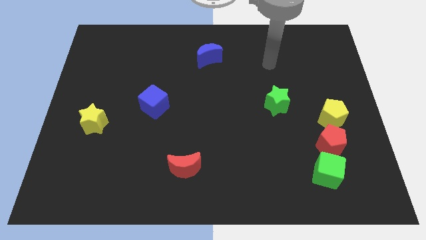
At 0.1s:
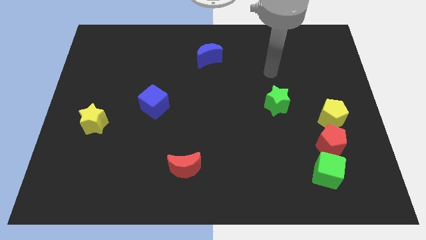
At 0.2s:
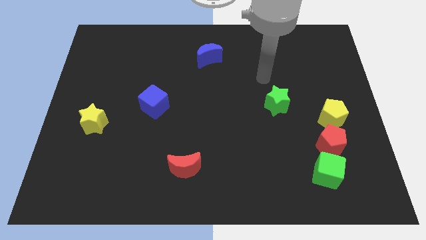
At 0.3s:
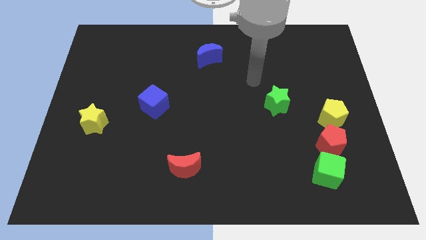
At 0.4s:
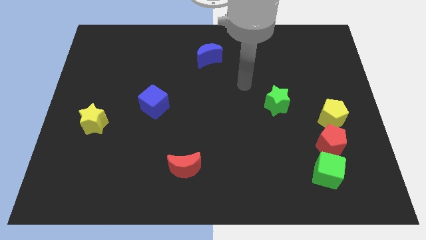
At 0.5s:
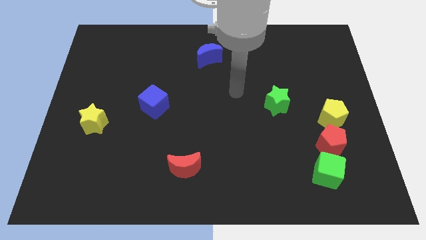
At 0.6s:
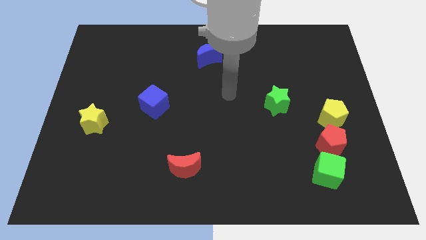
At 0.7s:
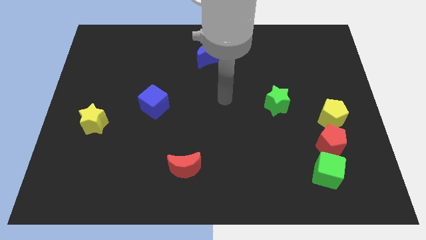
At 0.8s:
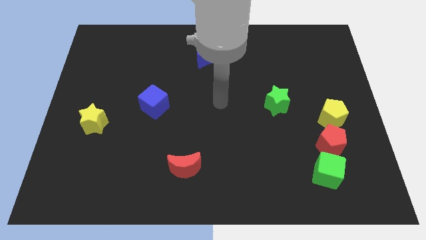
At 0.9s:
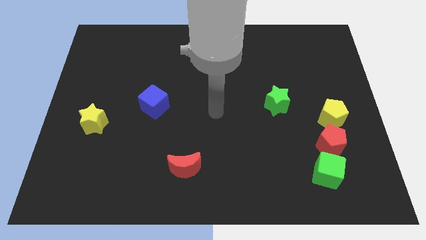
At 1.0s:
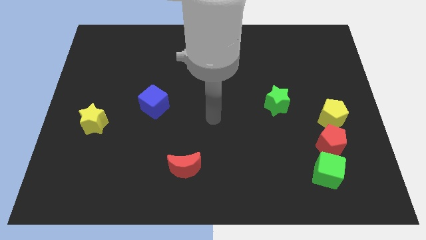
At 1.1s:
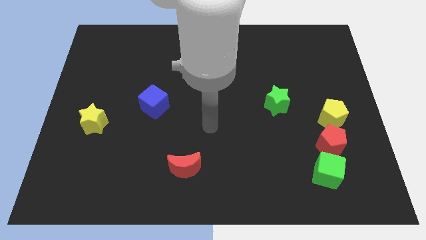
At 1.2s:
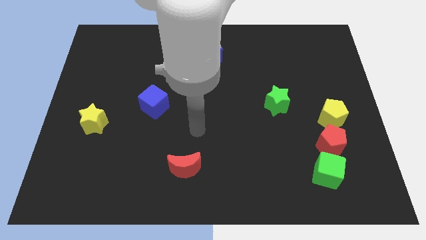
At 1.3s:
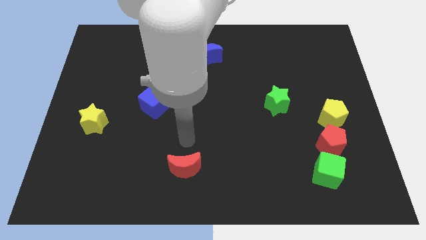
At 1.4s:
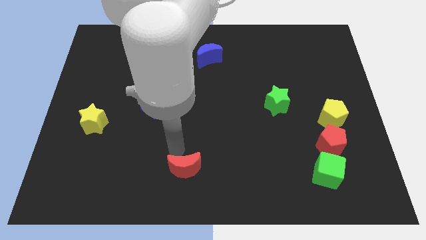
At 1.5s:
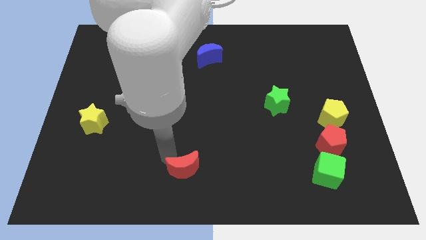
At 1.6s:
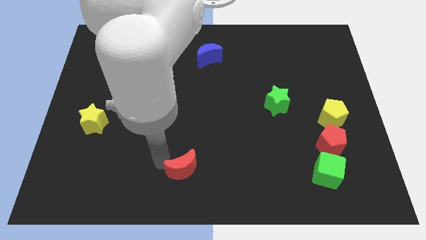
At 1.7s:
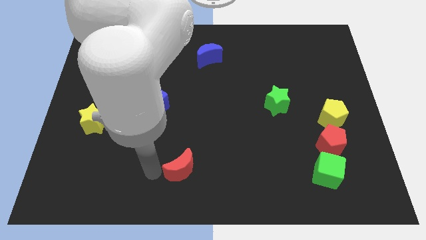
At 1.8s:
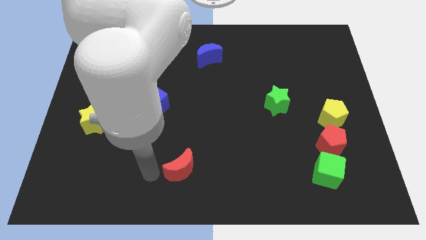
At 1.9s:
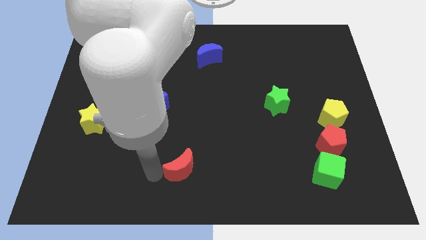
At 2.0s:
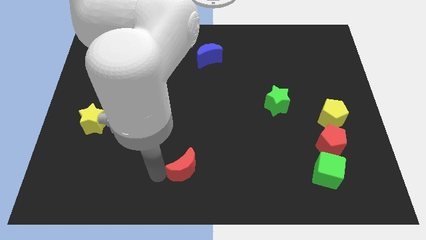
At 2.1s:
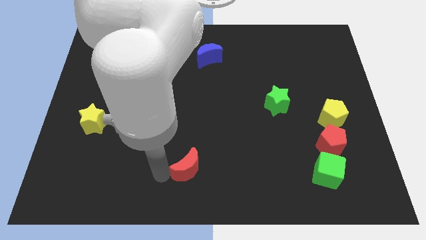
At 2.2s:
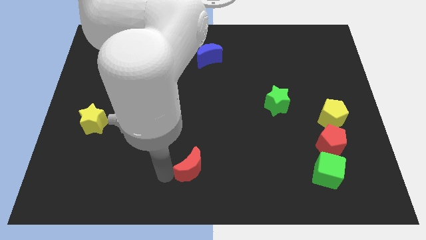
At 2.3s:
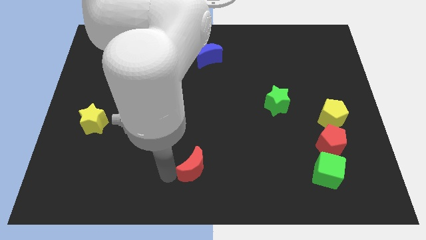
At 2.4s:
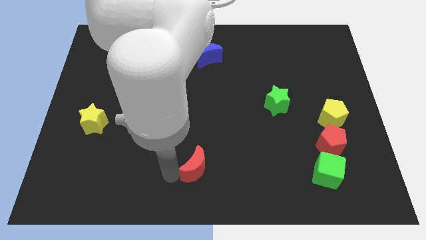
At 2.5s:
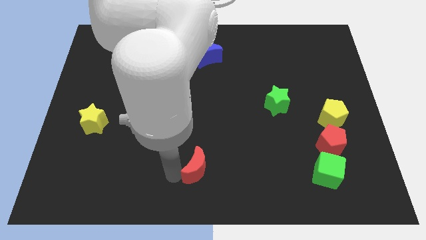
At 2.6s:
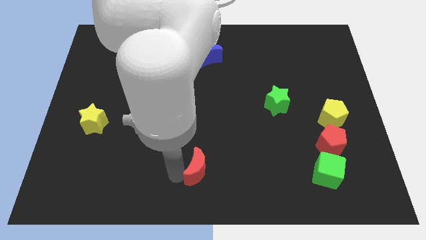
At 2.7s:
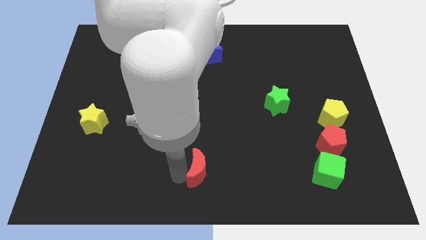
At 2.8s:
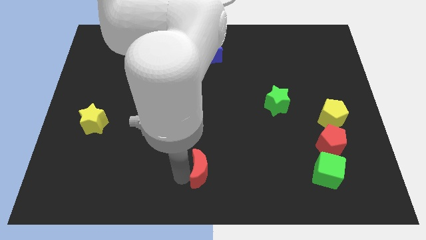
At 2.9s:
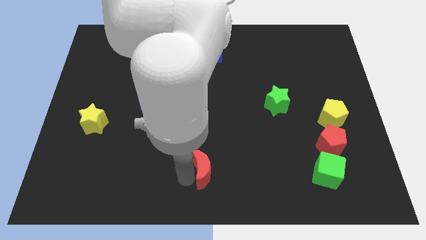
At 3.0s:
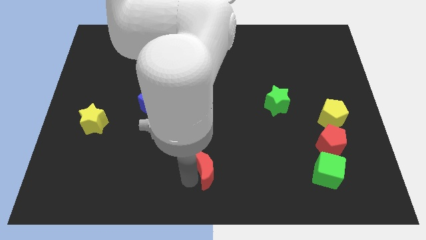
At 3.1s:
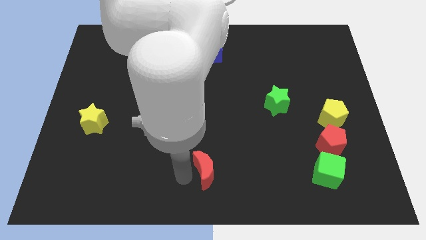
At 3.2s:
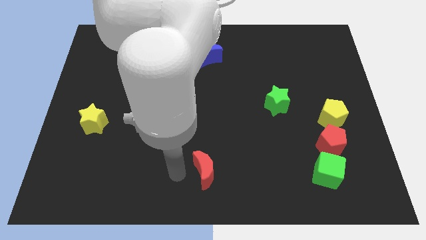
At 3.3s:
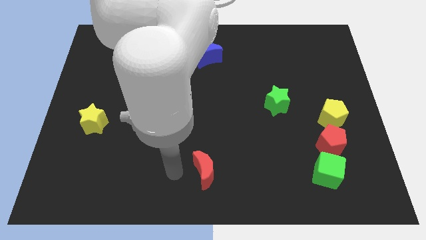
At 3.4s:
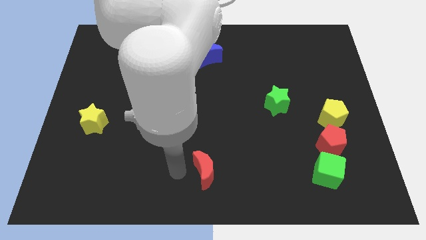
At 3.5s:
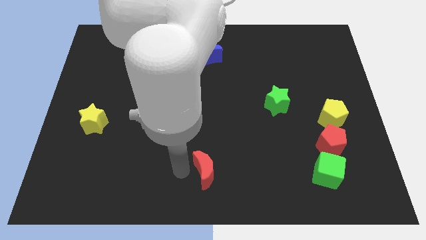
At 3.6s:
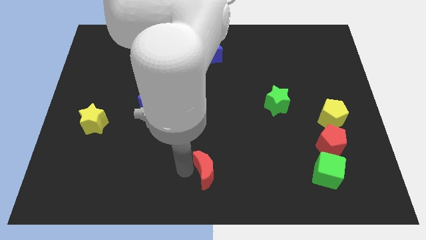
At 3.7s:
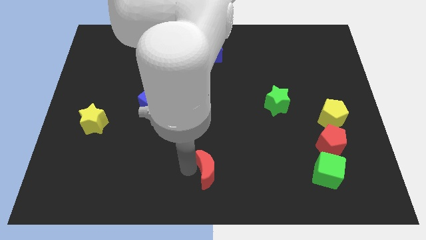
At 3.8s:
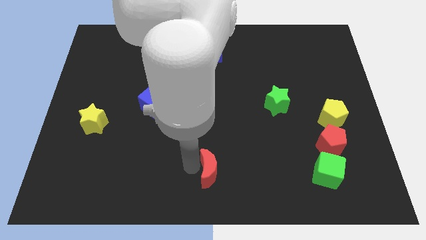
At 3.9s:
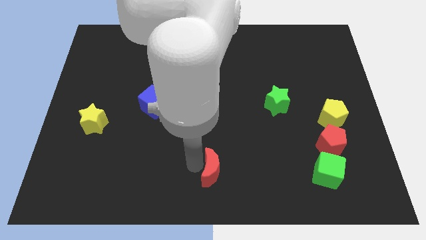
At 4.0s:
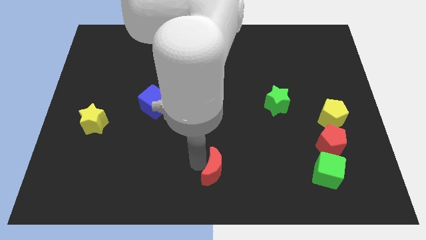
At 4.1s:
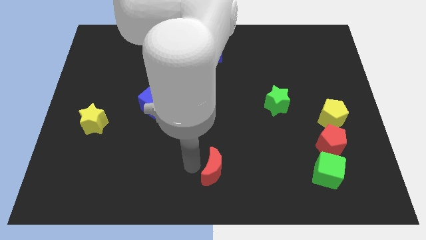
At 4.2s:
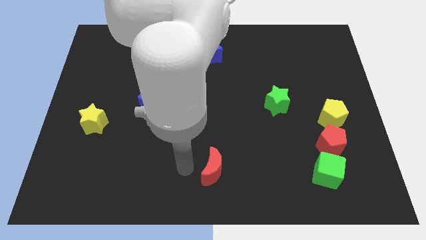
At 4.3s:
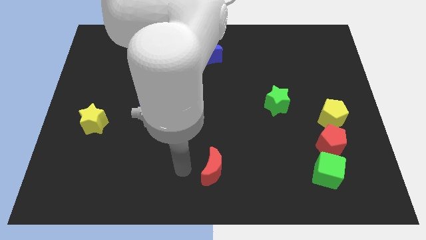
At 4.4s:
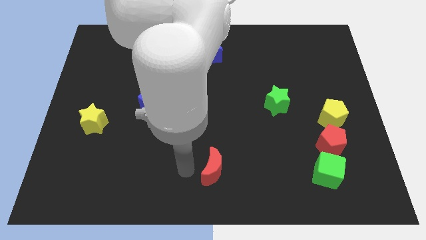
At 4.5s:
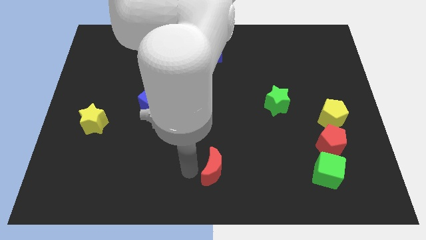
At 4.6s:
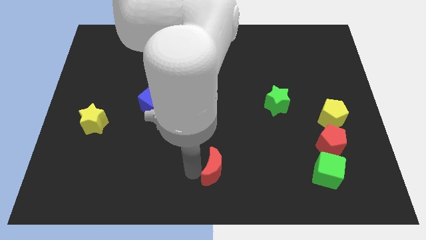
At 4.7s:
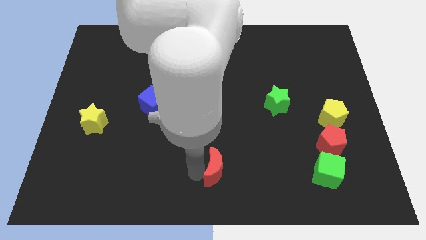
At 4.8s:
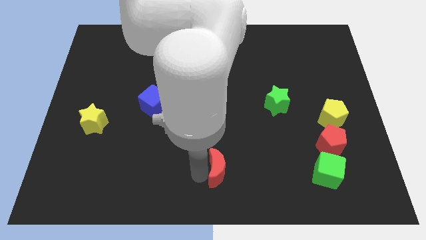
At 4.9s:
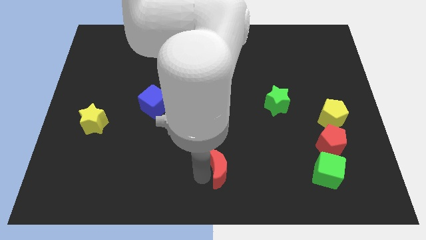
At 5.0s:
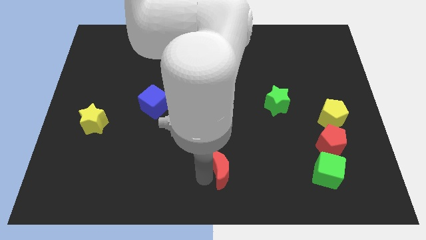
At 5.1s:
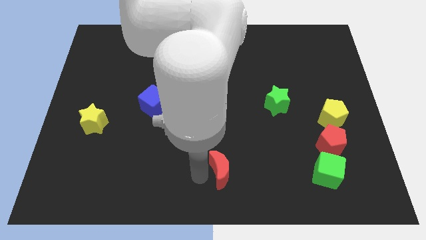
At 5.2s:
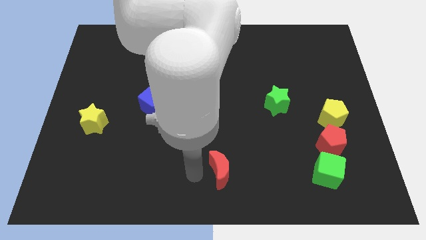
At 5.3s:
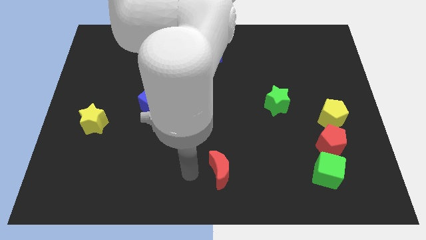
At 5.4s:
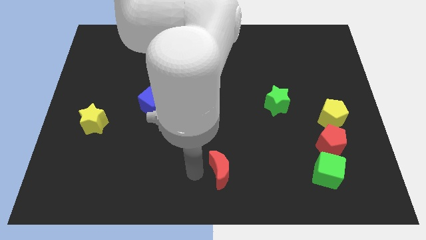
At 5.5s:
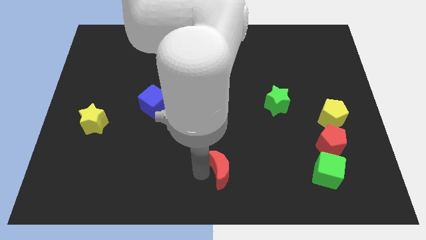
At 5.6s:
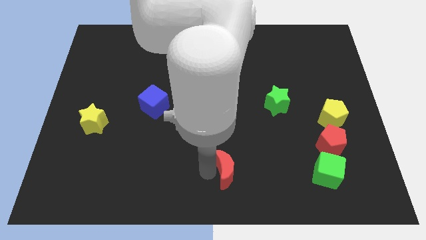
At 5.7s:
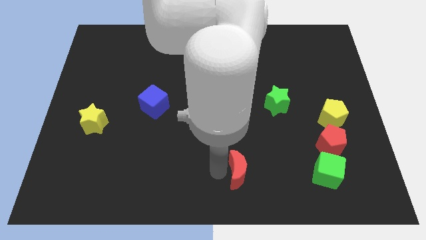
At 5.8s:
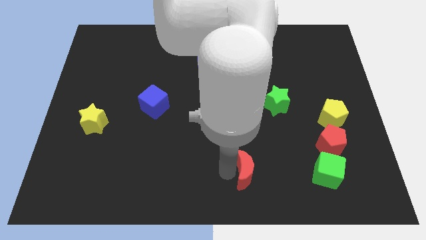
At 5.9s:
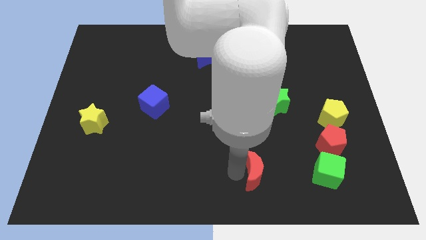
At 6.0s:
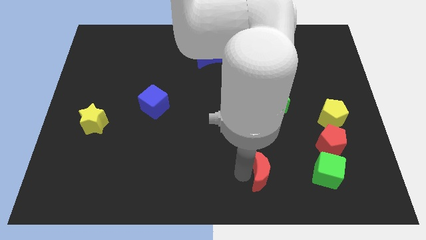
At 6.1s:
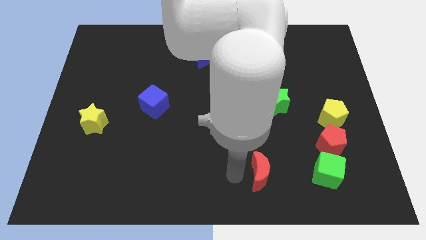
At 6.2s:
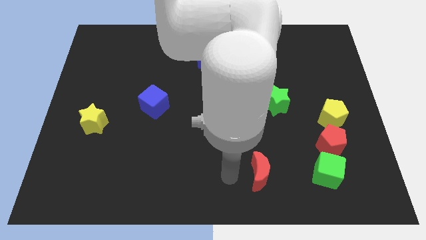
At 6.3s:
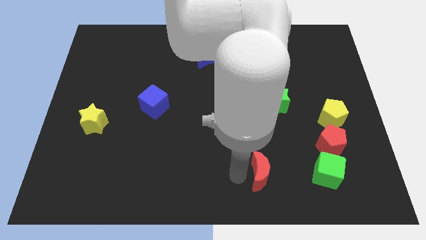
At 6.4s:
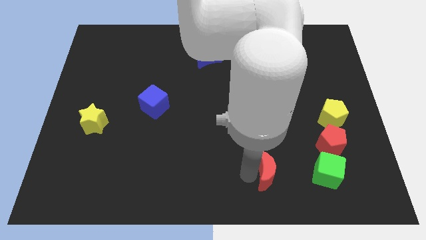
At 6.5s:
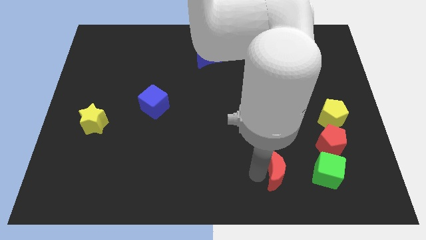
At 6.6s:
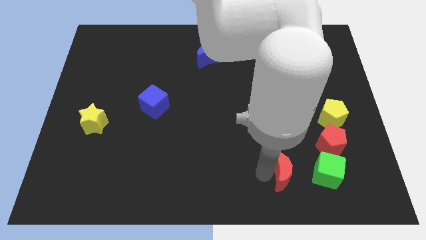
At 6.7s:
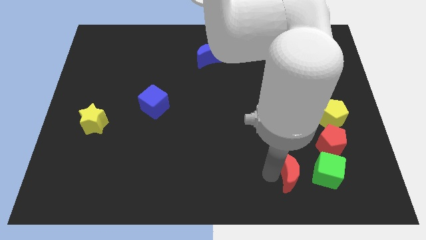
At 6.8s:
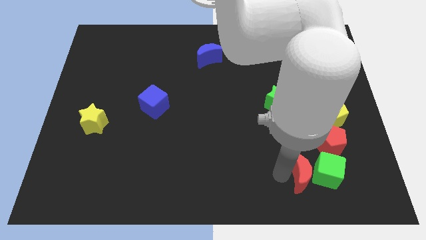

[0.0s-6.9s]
push the red moon towards the green cube

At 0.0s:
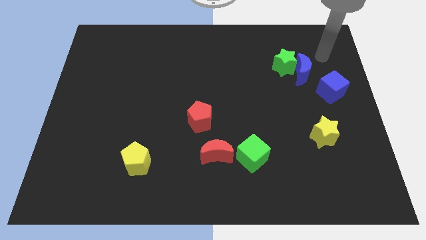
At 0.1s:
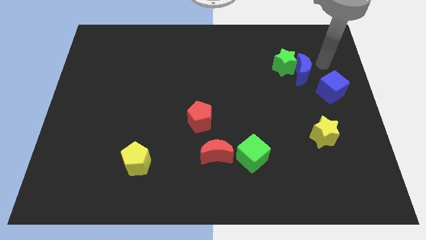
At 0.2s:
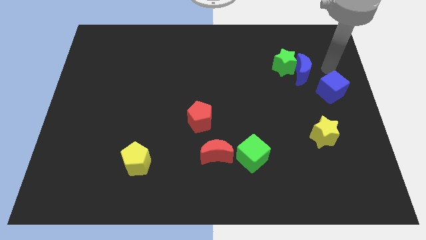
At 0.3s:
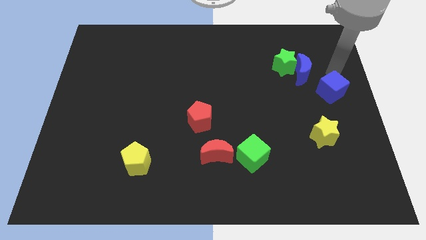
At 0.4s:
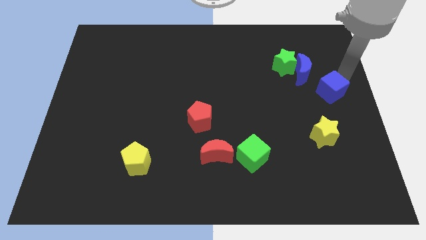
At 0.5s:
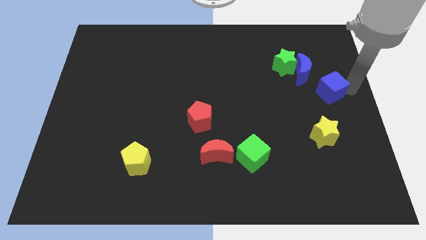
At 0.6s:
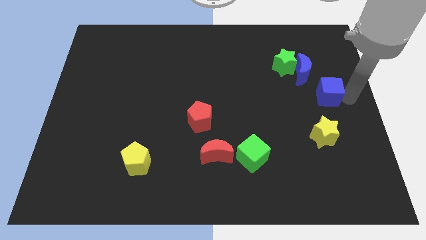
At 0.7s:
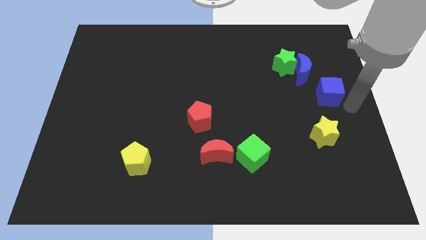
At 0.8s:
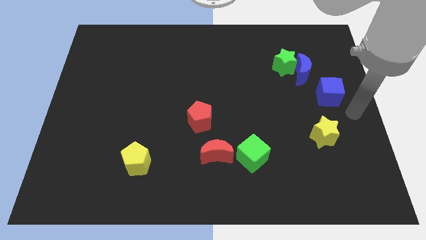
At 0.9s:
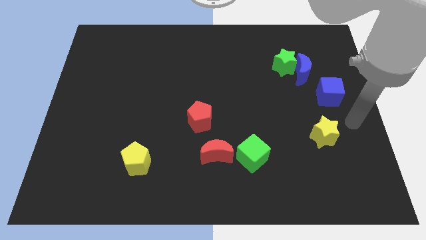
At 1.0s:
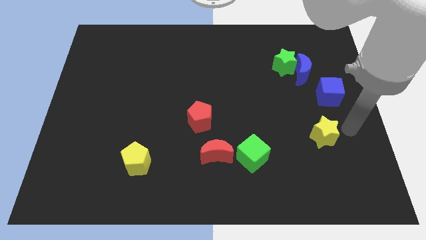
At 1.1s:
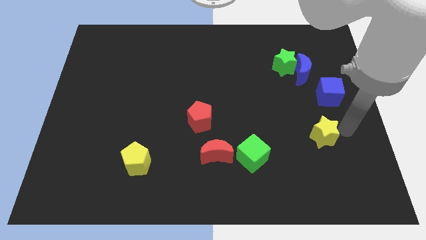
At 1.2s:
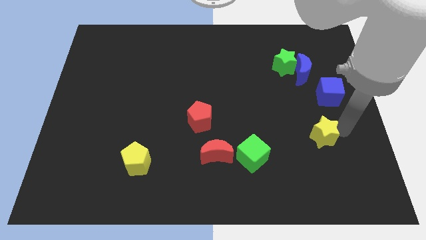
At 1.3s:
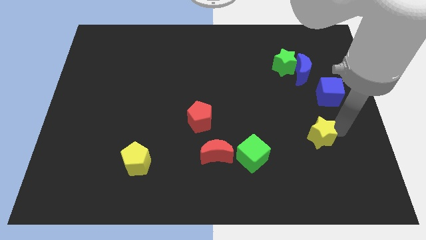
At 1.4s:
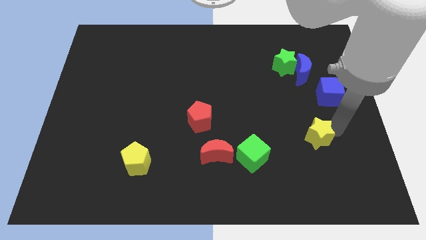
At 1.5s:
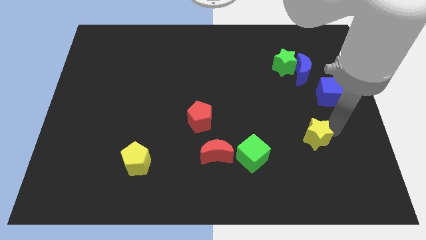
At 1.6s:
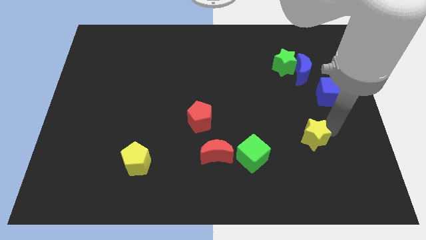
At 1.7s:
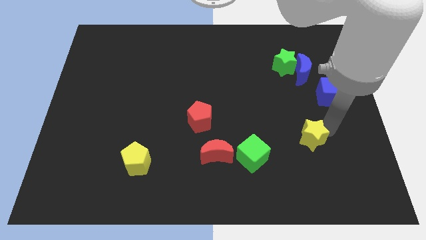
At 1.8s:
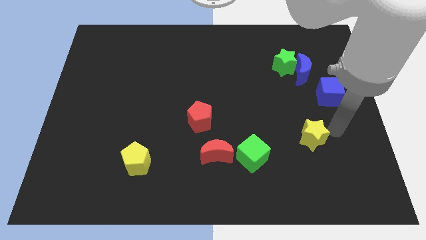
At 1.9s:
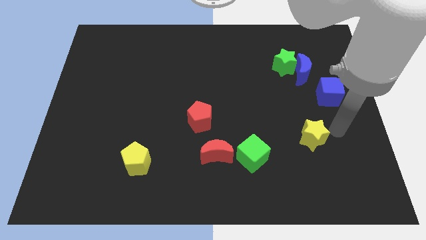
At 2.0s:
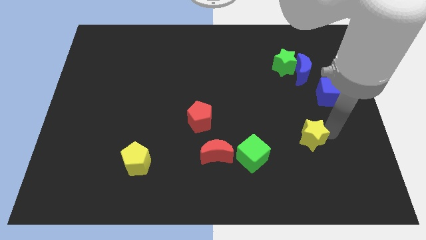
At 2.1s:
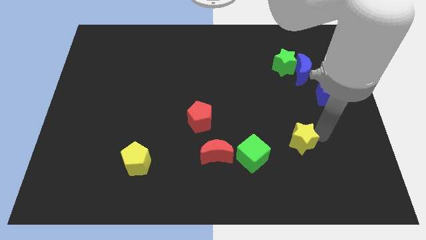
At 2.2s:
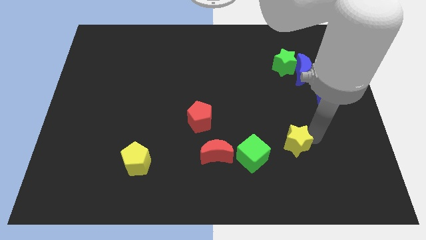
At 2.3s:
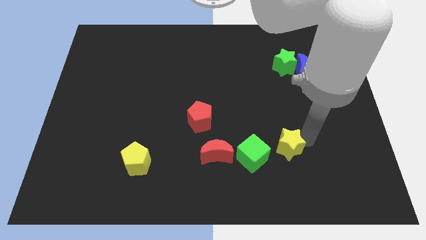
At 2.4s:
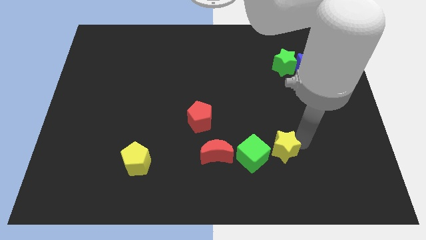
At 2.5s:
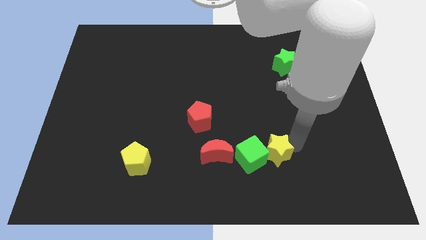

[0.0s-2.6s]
slide the yellow star next to the green cube
